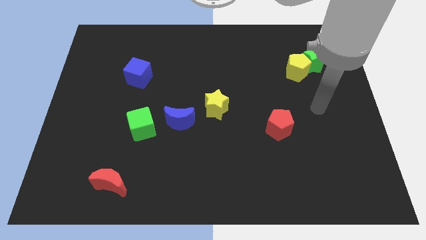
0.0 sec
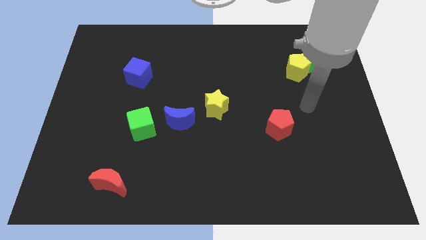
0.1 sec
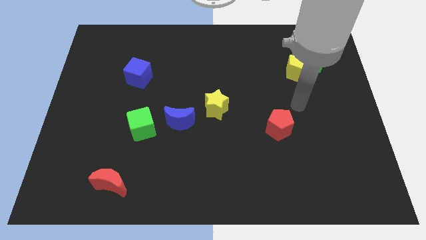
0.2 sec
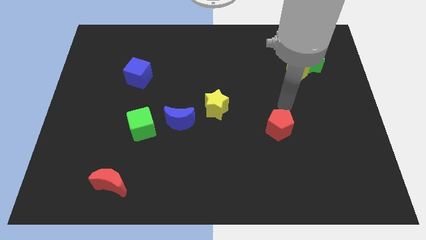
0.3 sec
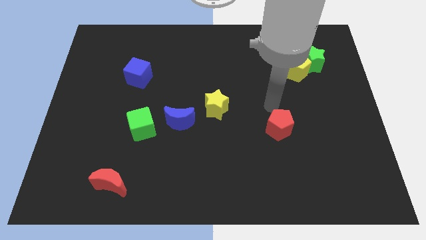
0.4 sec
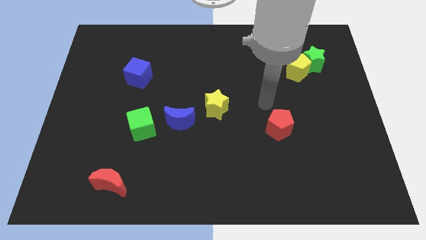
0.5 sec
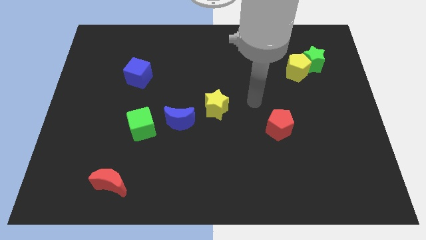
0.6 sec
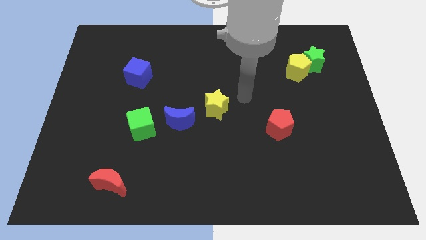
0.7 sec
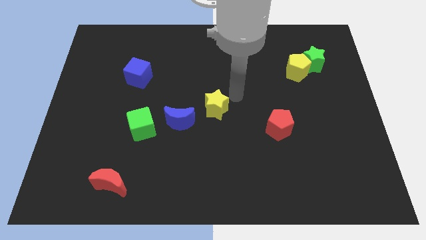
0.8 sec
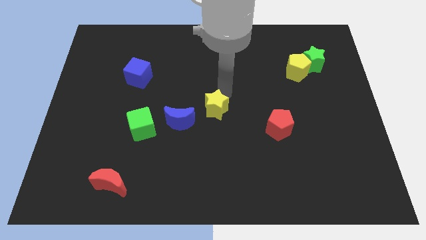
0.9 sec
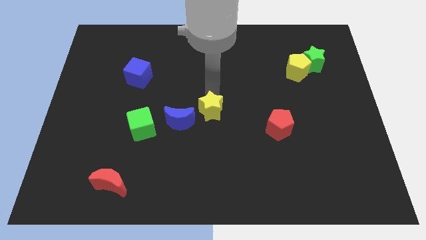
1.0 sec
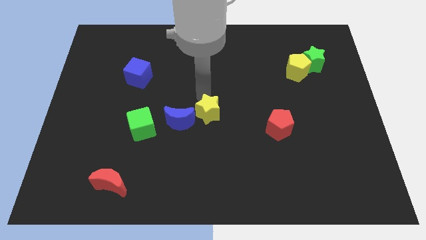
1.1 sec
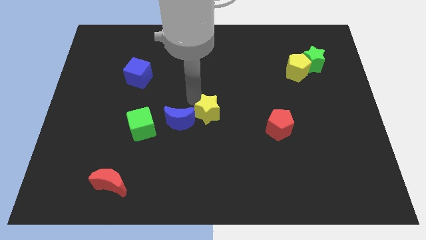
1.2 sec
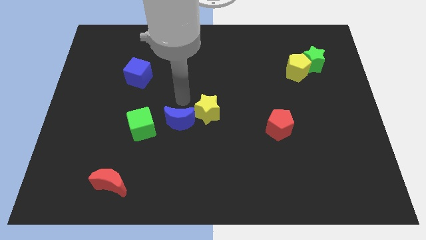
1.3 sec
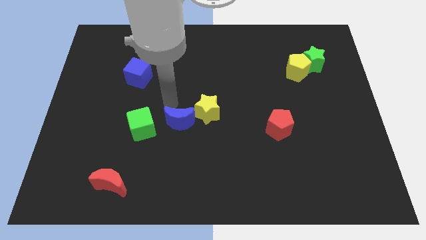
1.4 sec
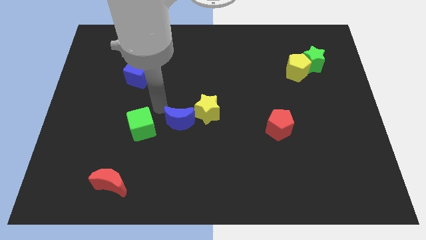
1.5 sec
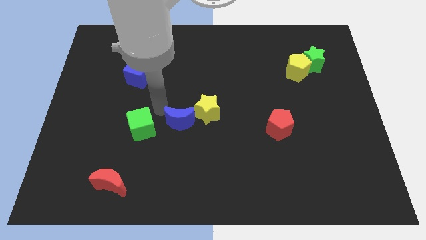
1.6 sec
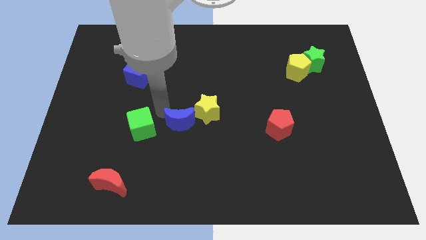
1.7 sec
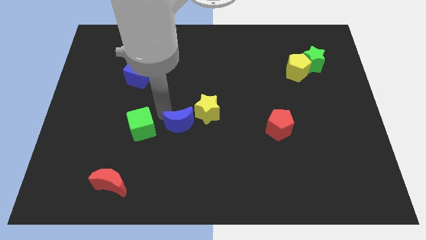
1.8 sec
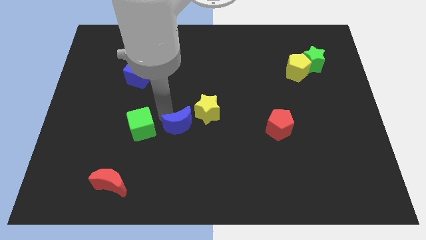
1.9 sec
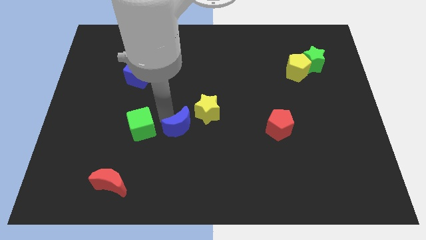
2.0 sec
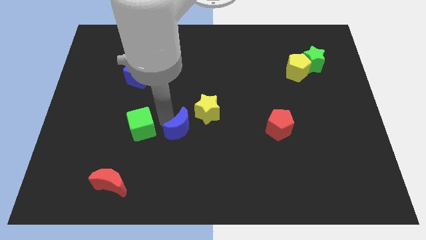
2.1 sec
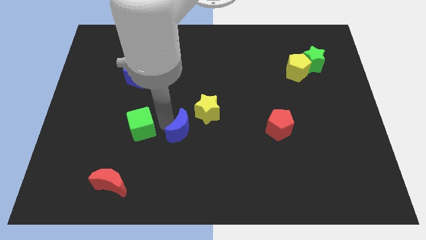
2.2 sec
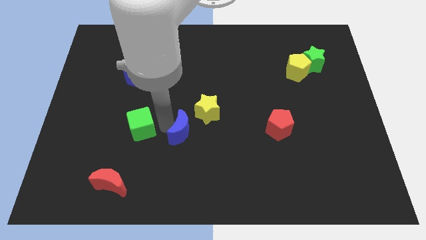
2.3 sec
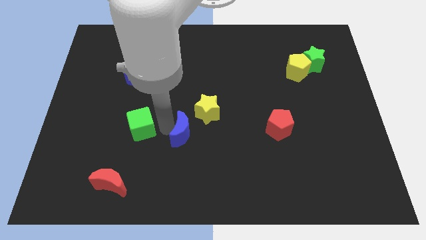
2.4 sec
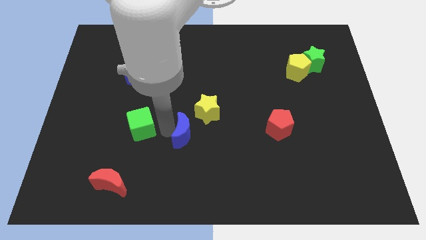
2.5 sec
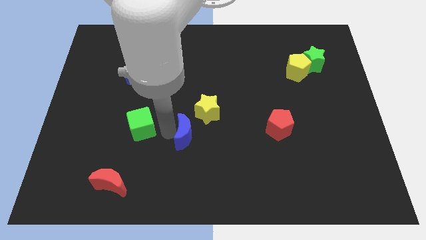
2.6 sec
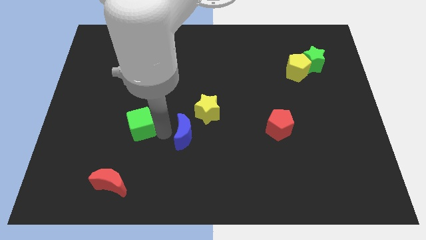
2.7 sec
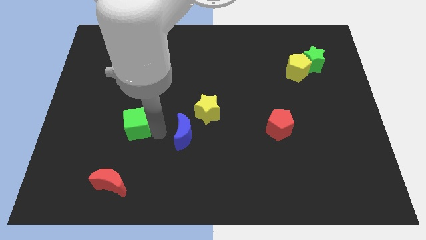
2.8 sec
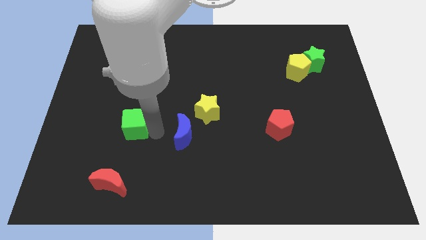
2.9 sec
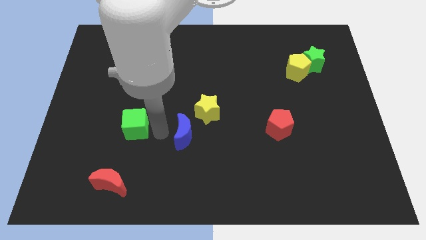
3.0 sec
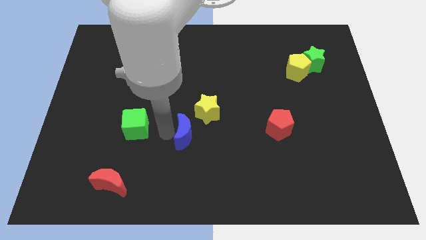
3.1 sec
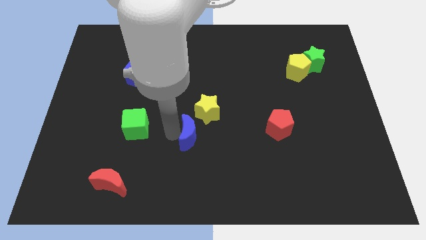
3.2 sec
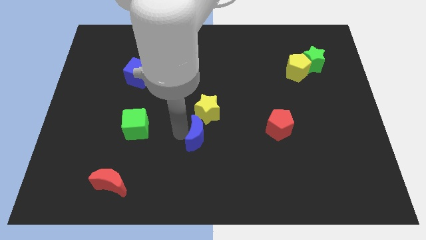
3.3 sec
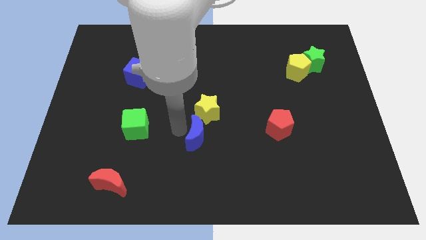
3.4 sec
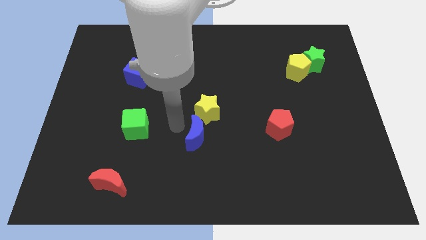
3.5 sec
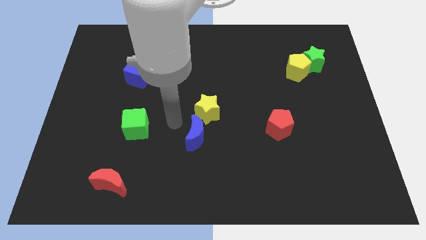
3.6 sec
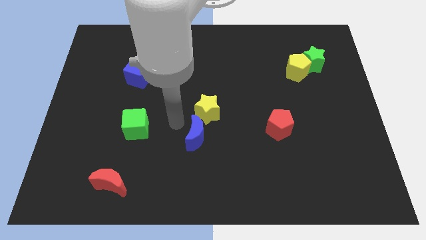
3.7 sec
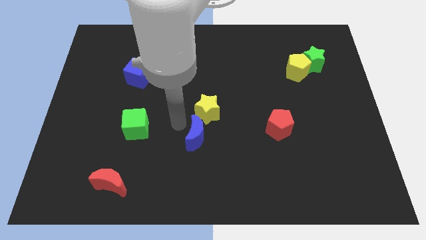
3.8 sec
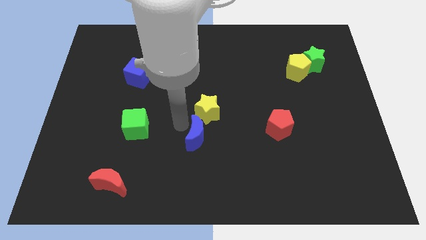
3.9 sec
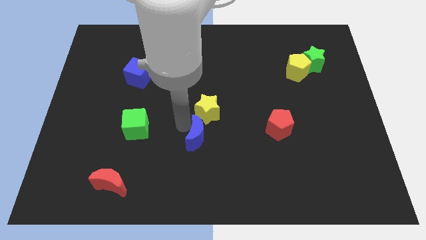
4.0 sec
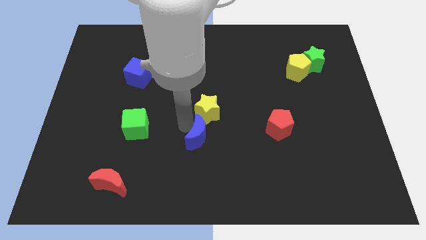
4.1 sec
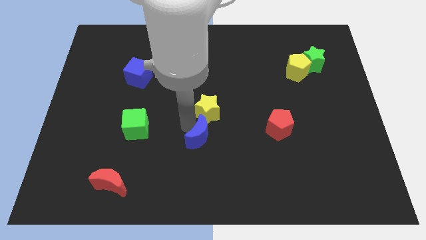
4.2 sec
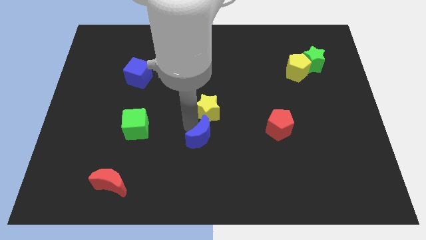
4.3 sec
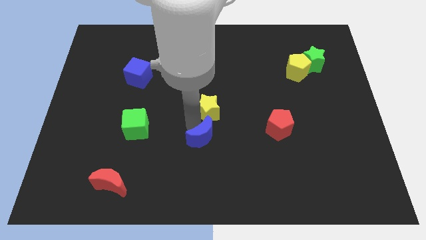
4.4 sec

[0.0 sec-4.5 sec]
slide the blue moon downwards and right diagonally slightly

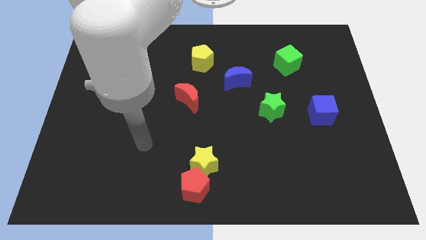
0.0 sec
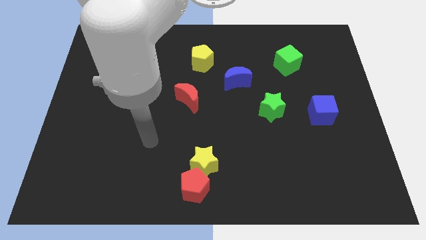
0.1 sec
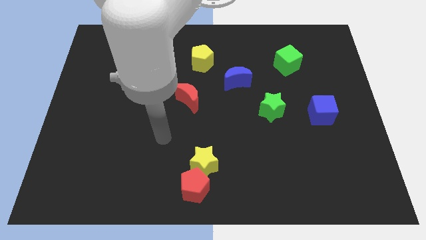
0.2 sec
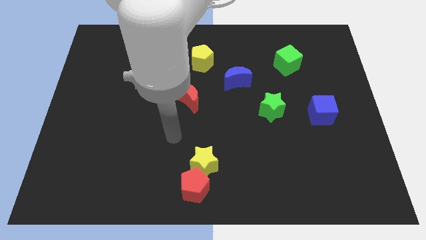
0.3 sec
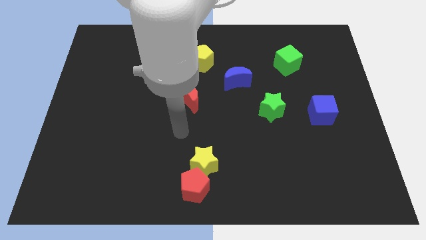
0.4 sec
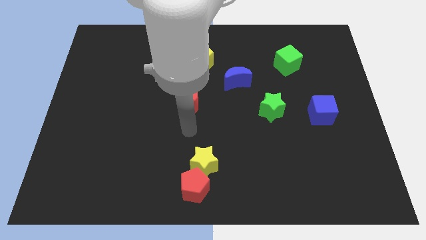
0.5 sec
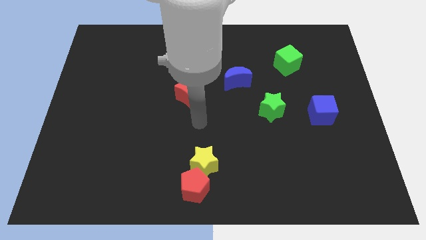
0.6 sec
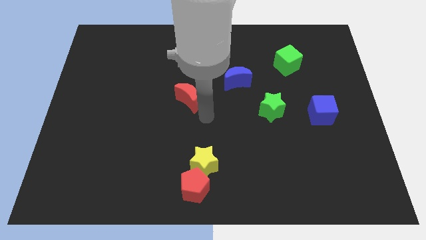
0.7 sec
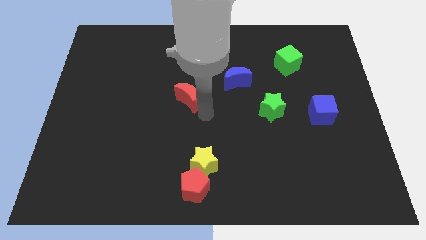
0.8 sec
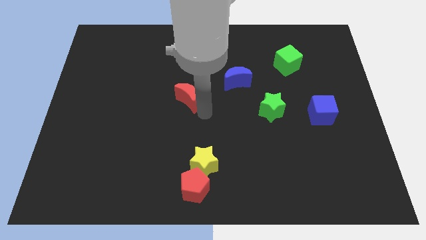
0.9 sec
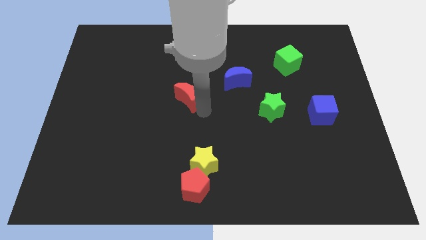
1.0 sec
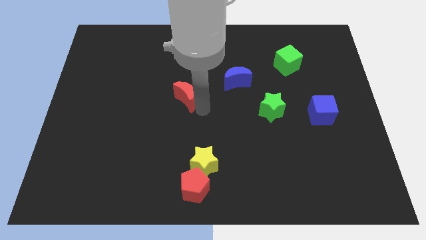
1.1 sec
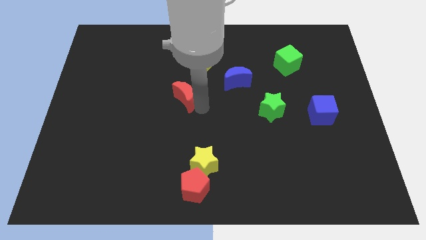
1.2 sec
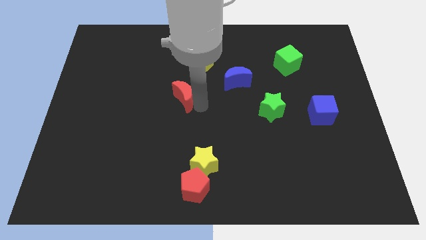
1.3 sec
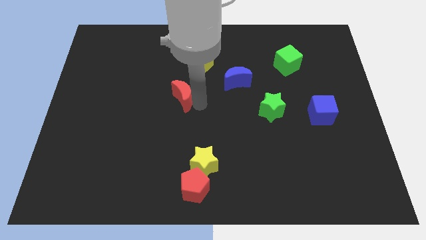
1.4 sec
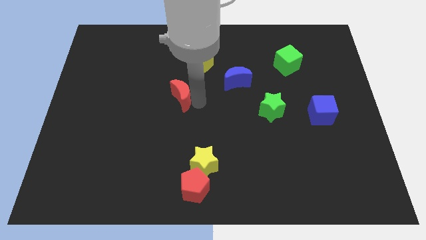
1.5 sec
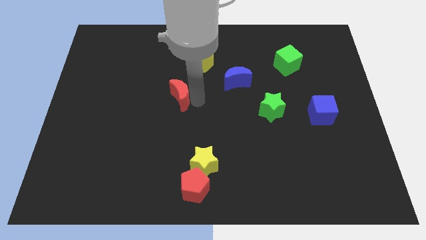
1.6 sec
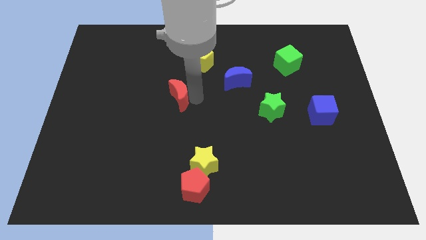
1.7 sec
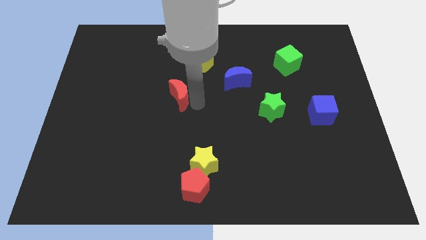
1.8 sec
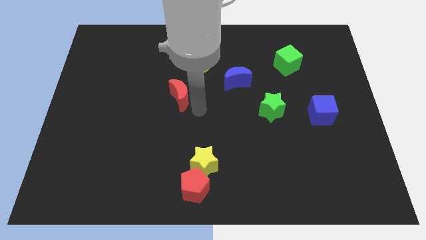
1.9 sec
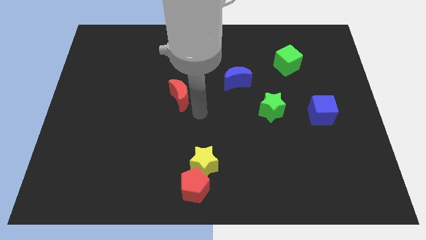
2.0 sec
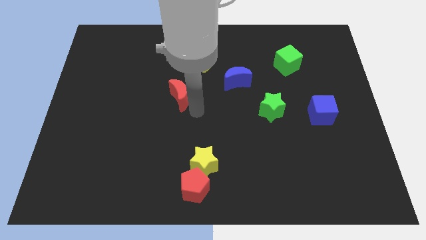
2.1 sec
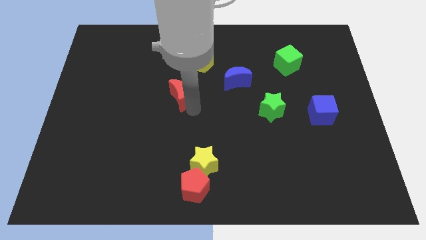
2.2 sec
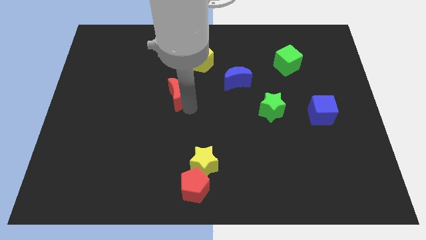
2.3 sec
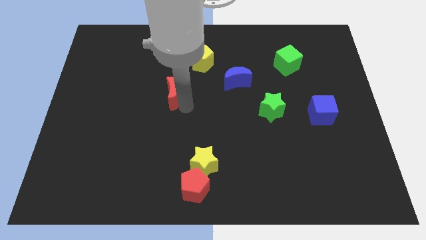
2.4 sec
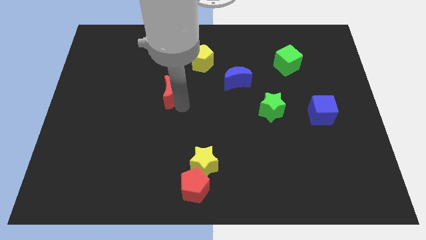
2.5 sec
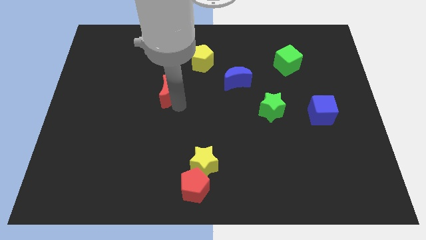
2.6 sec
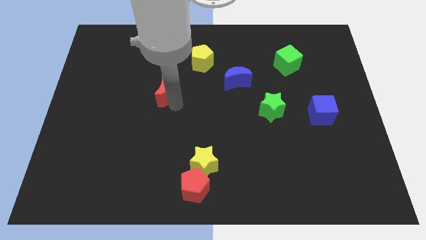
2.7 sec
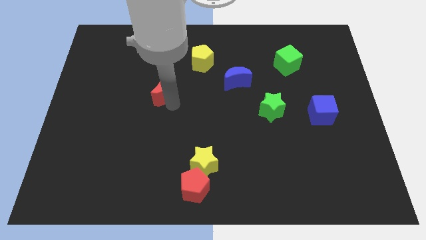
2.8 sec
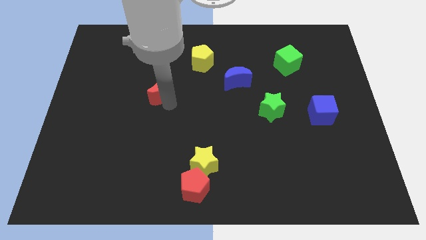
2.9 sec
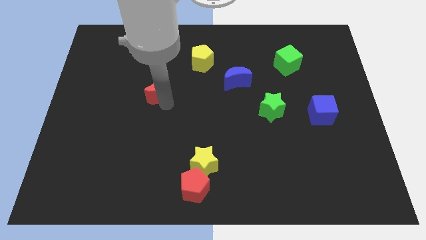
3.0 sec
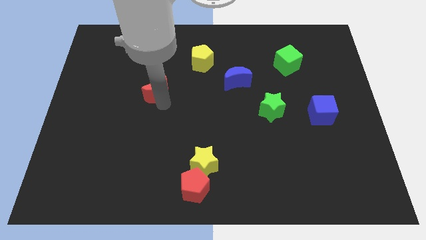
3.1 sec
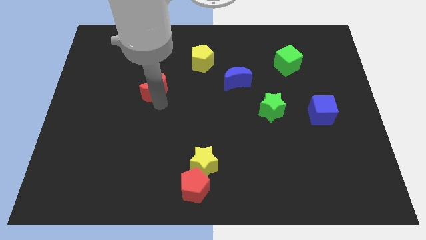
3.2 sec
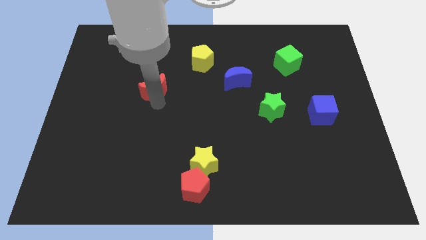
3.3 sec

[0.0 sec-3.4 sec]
slide the red moon diagonally up and left a bit
